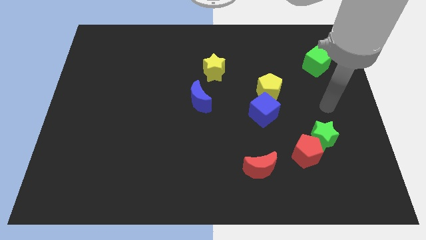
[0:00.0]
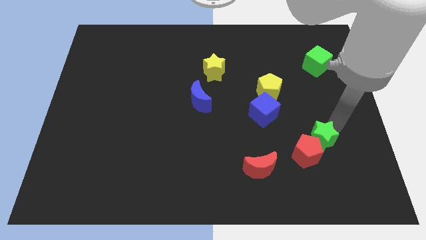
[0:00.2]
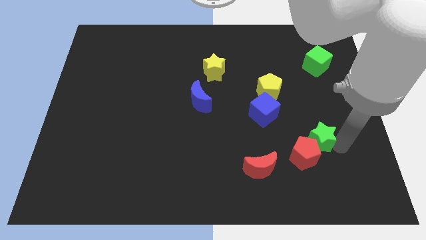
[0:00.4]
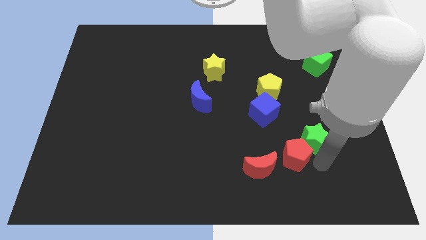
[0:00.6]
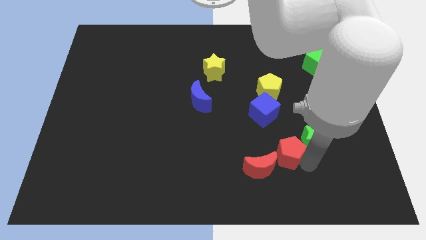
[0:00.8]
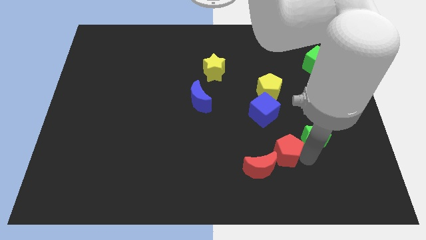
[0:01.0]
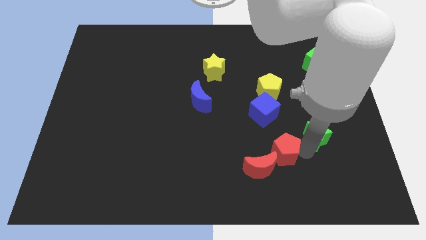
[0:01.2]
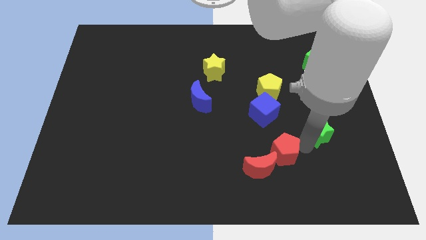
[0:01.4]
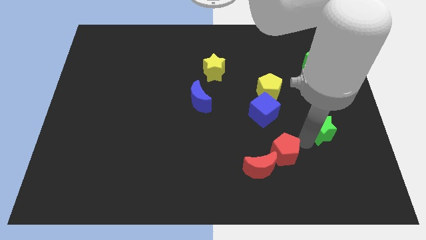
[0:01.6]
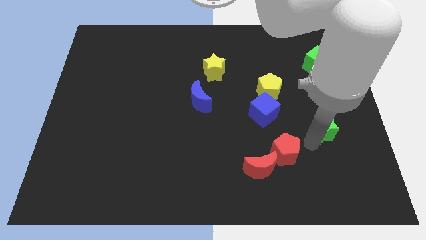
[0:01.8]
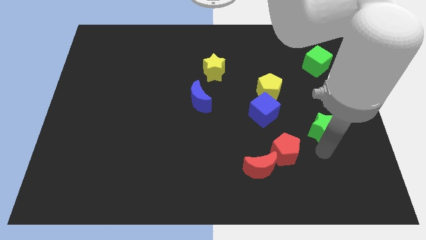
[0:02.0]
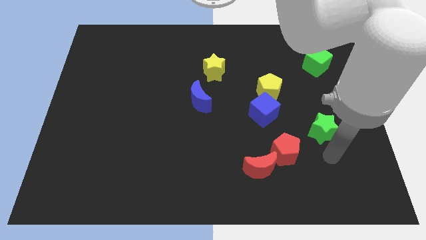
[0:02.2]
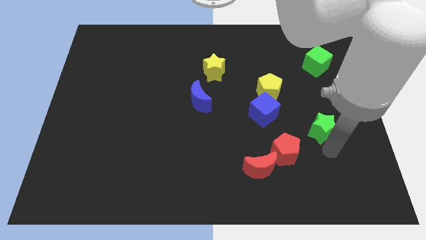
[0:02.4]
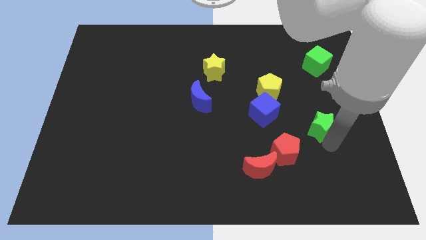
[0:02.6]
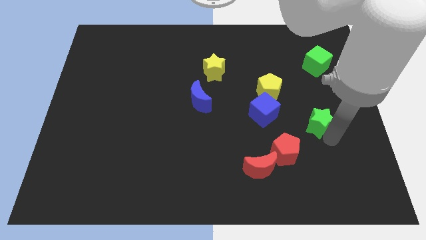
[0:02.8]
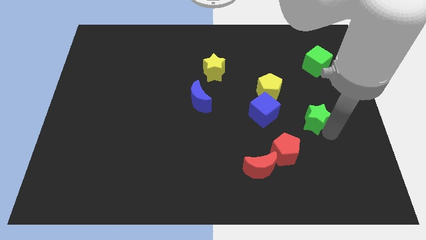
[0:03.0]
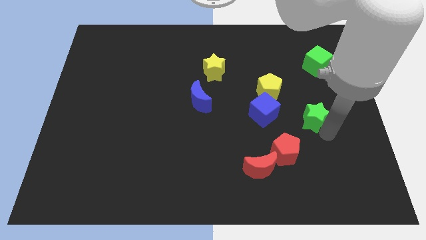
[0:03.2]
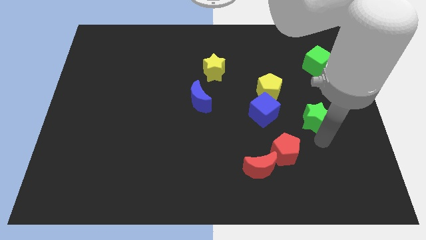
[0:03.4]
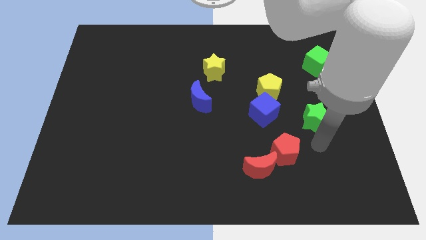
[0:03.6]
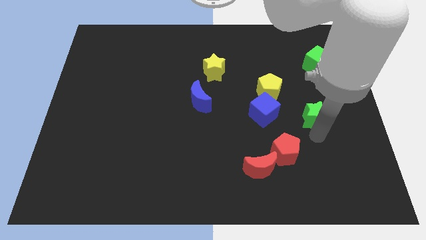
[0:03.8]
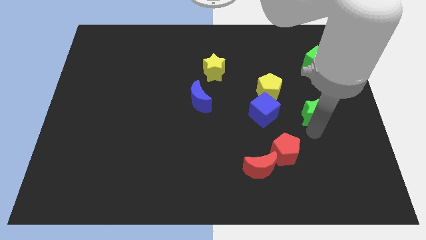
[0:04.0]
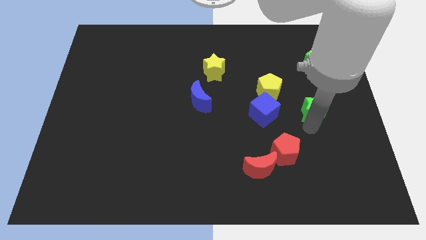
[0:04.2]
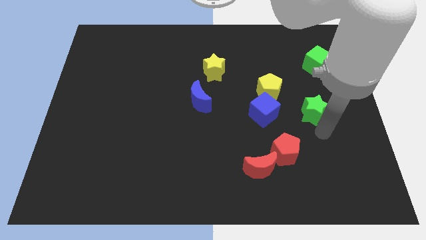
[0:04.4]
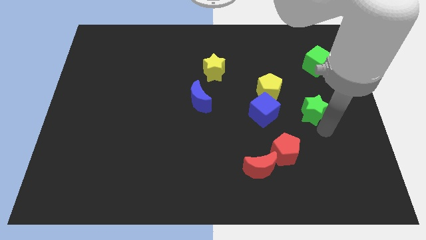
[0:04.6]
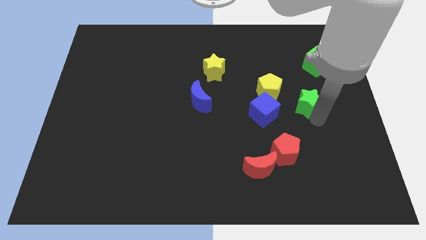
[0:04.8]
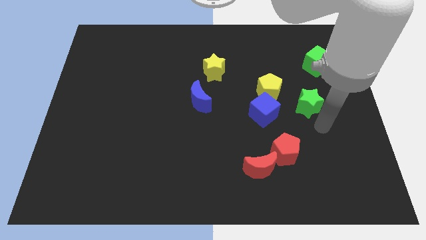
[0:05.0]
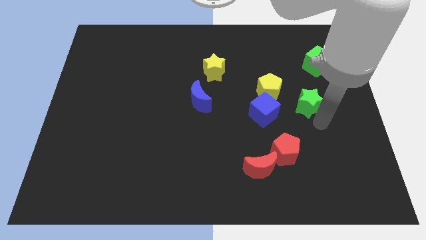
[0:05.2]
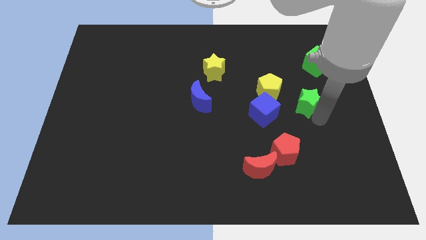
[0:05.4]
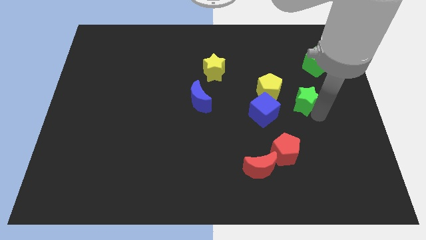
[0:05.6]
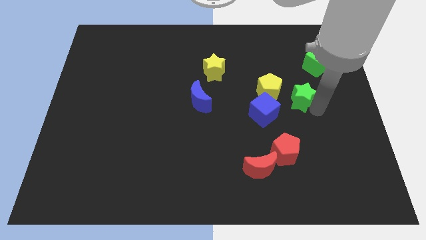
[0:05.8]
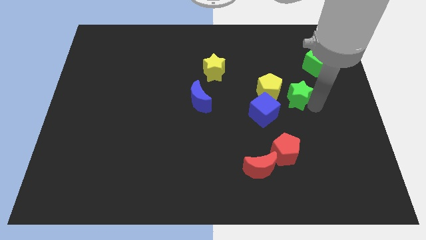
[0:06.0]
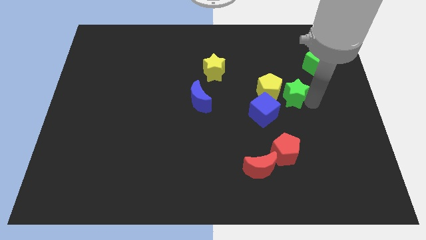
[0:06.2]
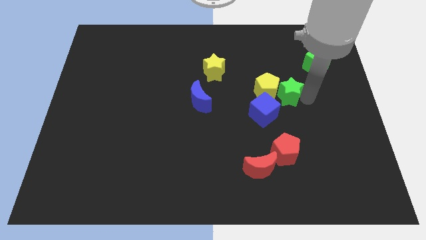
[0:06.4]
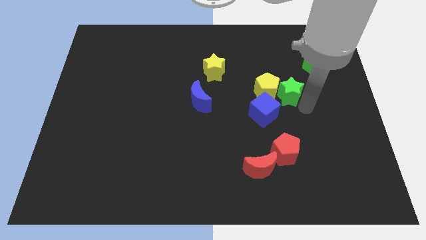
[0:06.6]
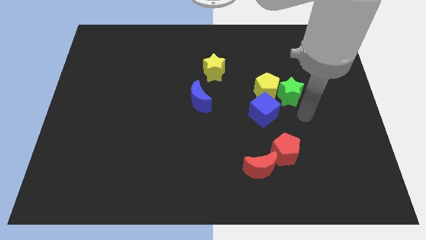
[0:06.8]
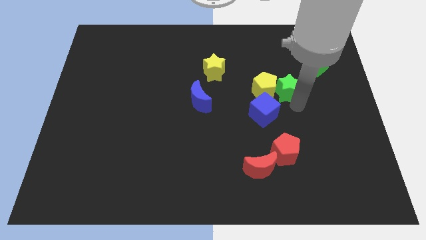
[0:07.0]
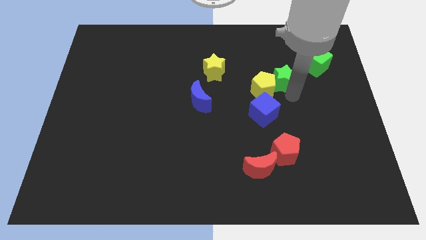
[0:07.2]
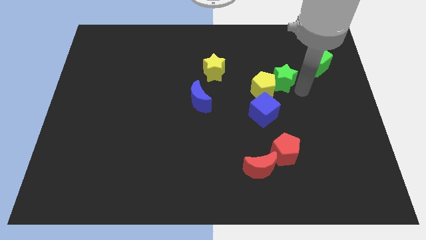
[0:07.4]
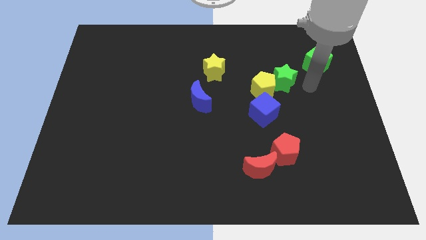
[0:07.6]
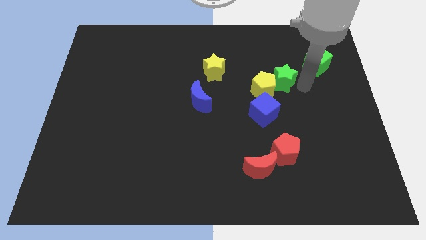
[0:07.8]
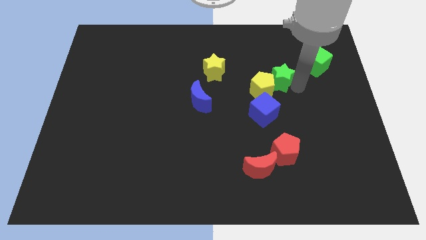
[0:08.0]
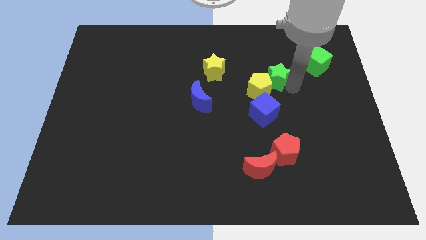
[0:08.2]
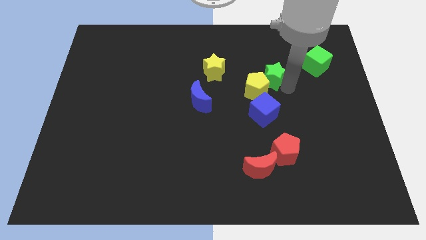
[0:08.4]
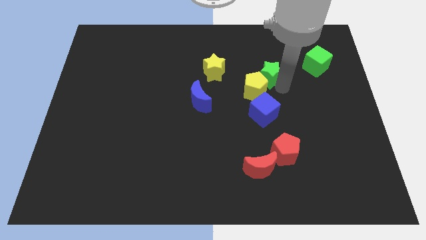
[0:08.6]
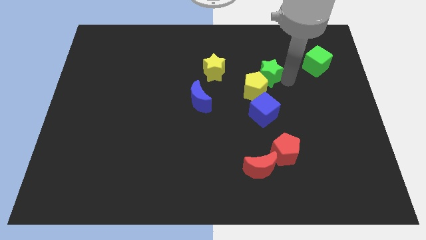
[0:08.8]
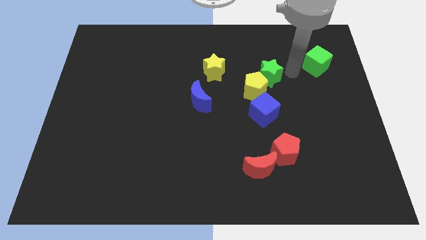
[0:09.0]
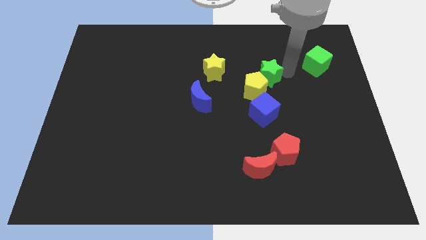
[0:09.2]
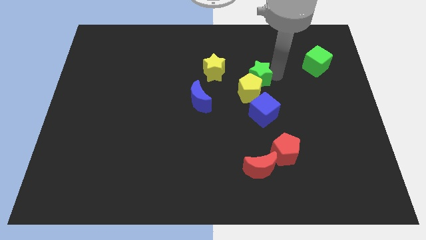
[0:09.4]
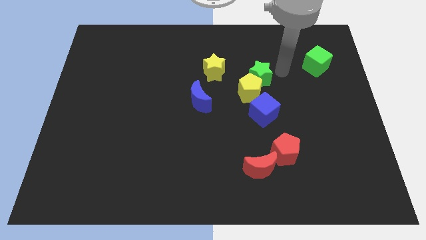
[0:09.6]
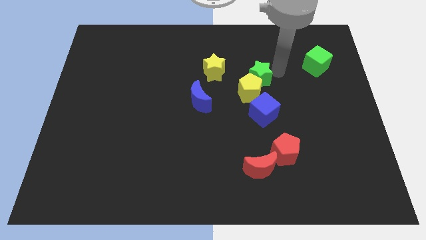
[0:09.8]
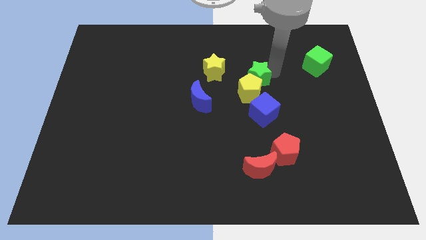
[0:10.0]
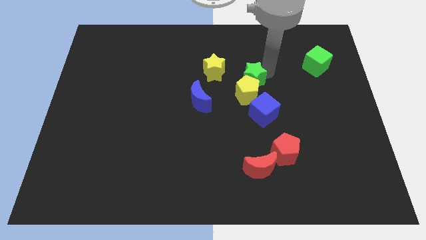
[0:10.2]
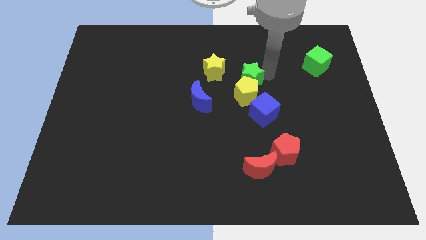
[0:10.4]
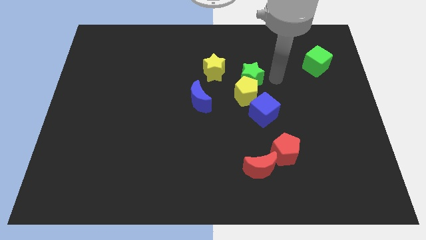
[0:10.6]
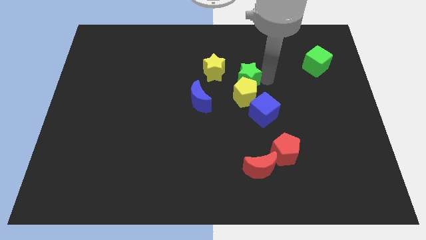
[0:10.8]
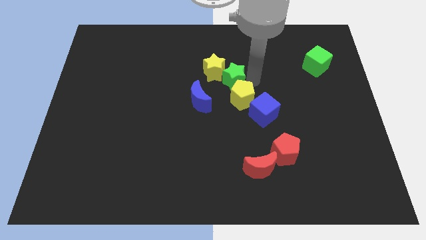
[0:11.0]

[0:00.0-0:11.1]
slide the green star close to the yellow star

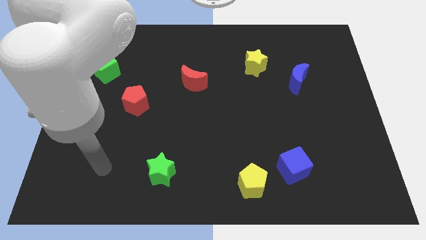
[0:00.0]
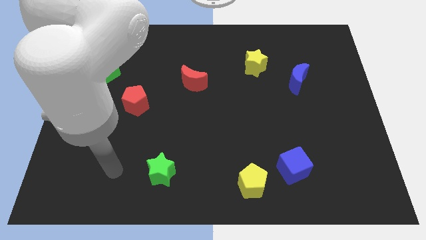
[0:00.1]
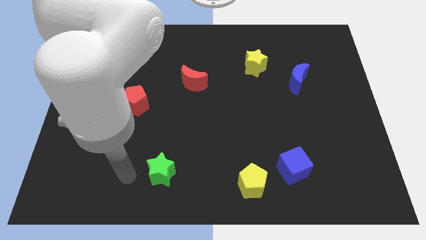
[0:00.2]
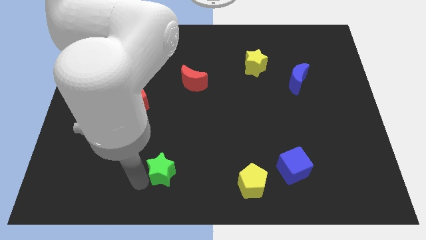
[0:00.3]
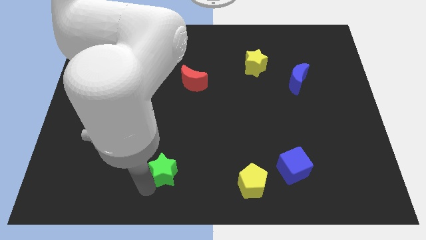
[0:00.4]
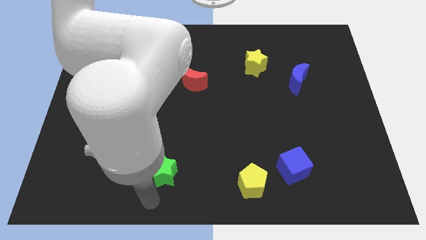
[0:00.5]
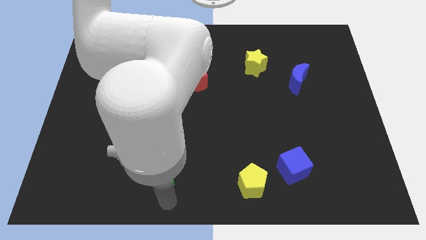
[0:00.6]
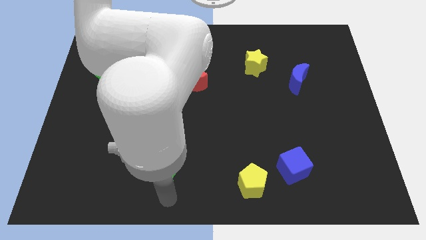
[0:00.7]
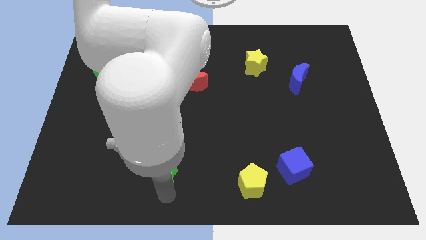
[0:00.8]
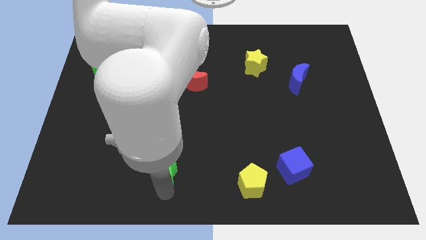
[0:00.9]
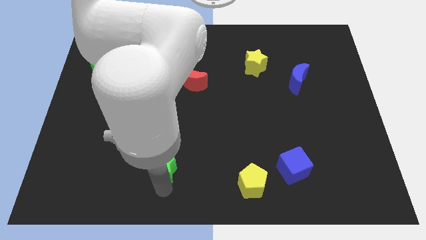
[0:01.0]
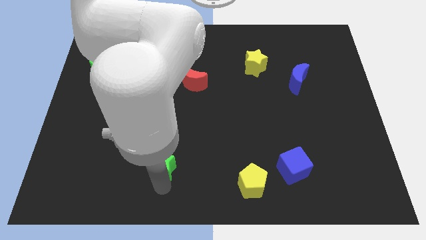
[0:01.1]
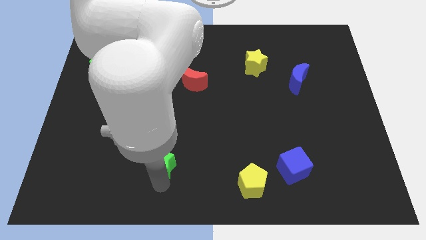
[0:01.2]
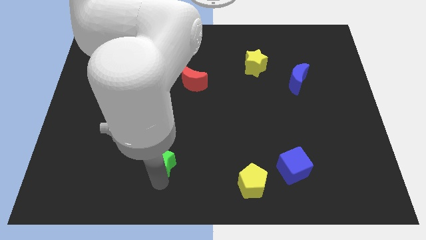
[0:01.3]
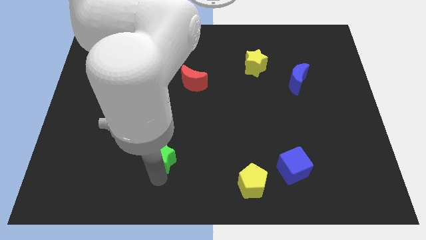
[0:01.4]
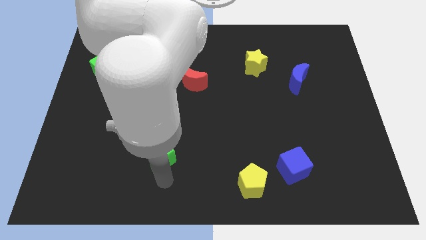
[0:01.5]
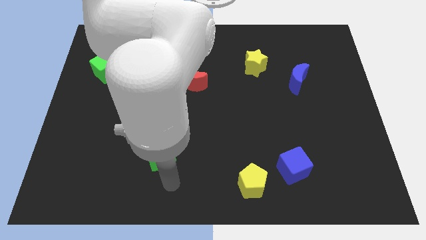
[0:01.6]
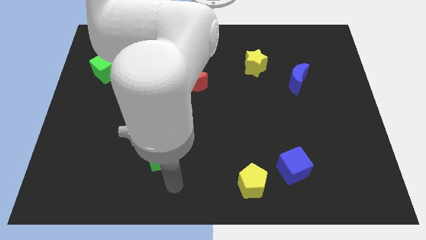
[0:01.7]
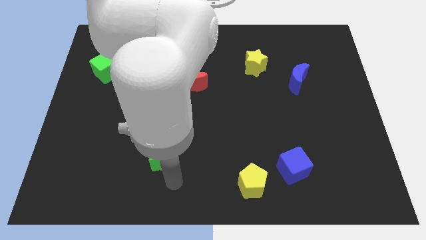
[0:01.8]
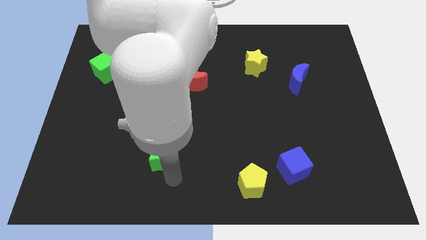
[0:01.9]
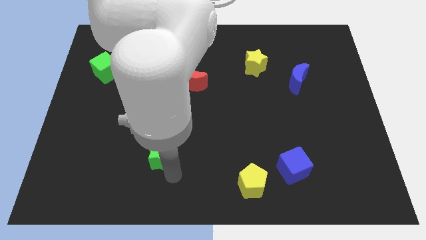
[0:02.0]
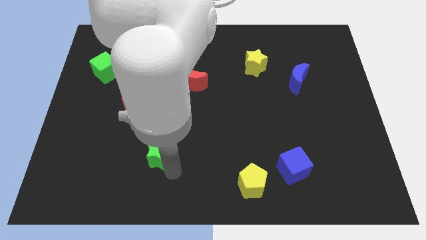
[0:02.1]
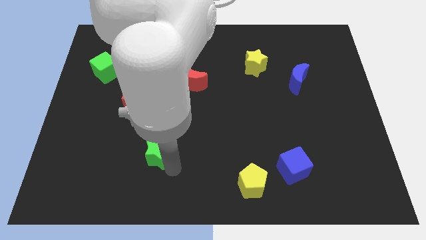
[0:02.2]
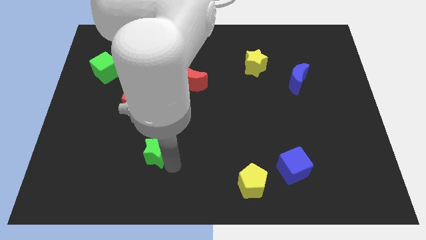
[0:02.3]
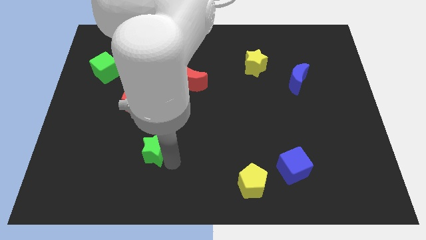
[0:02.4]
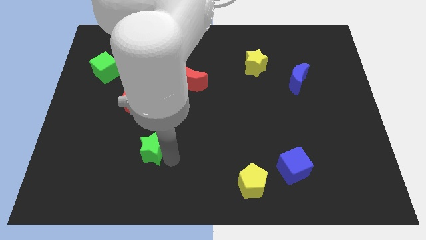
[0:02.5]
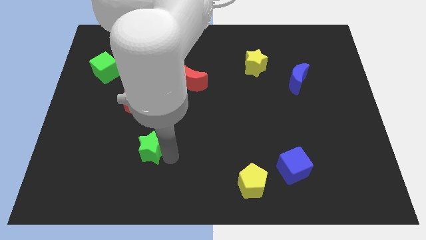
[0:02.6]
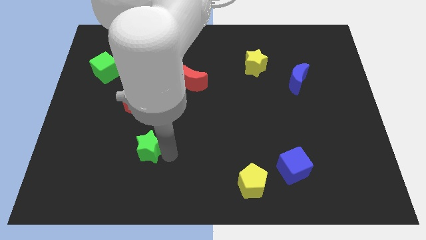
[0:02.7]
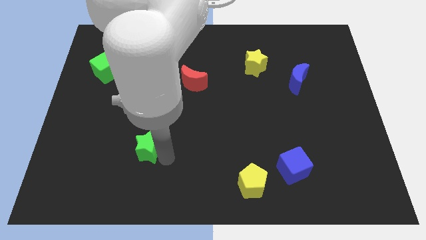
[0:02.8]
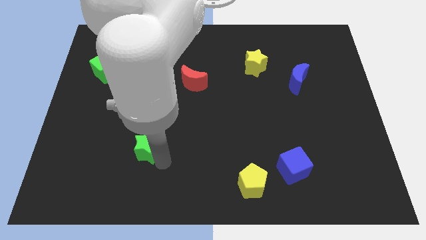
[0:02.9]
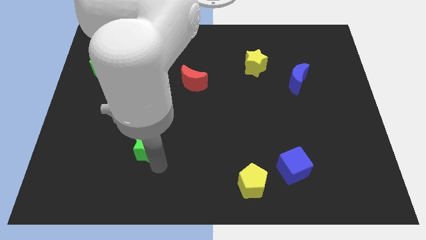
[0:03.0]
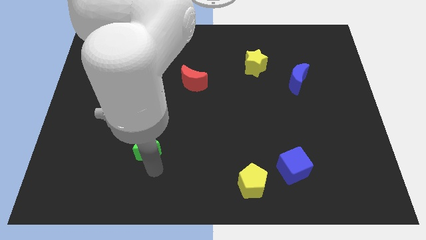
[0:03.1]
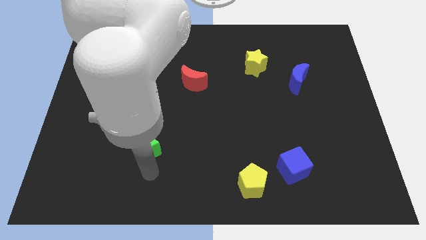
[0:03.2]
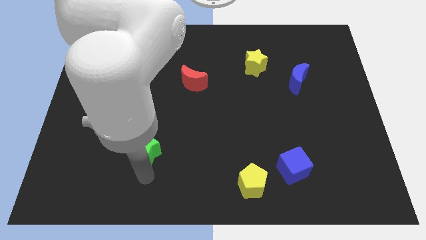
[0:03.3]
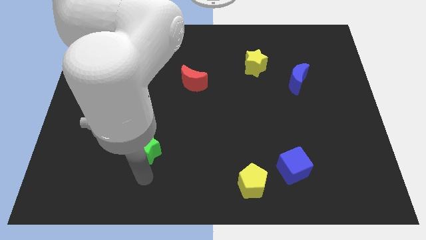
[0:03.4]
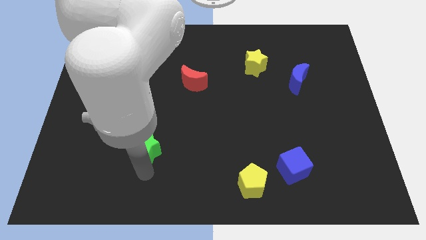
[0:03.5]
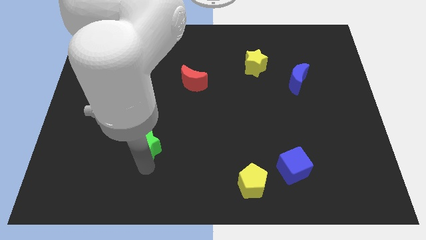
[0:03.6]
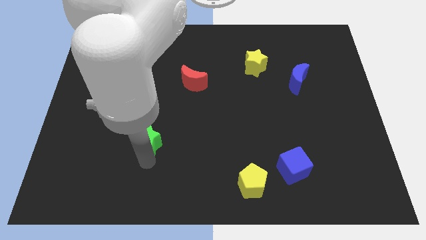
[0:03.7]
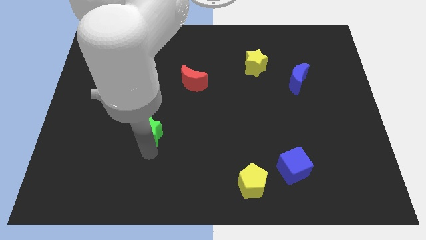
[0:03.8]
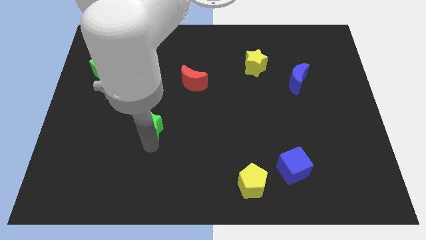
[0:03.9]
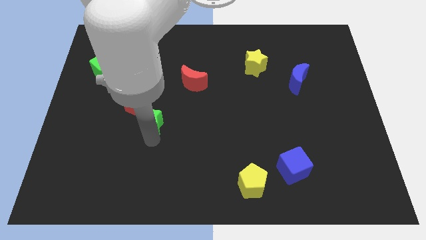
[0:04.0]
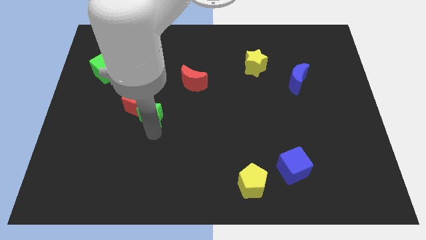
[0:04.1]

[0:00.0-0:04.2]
put the green star to the red pentagon
